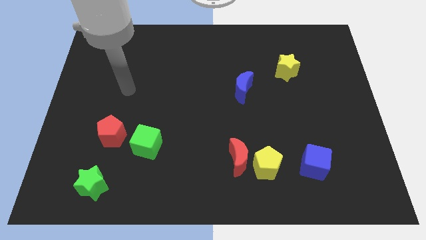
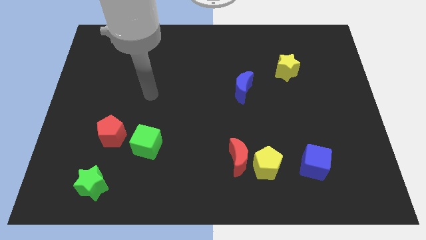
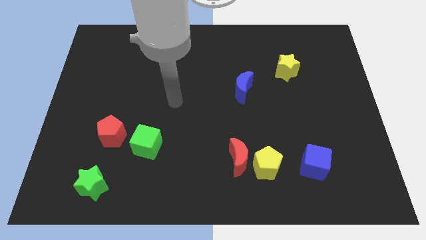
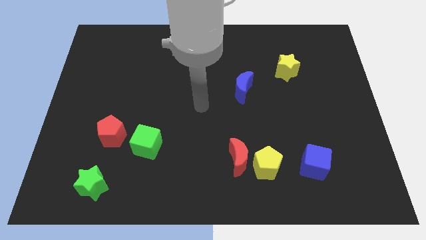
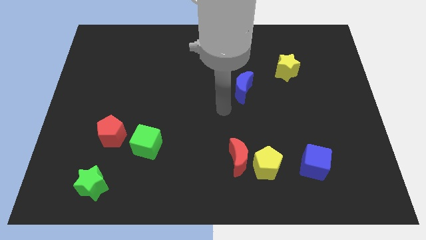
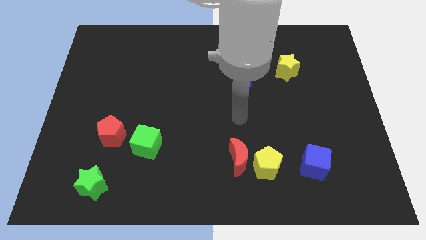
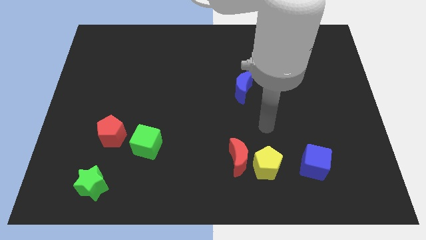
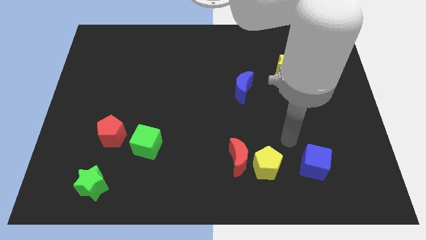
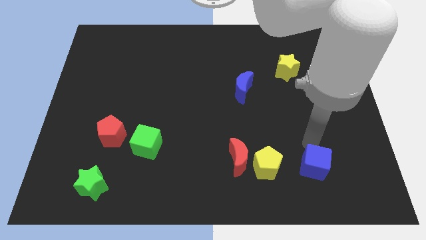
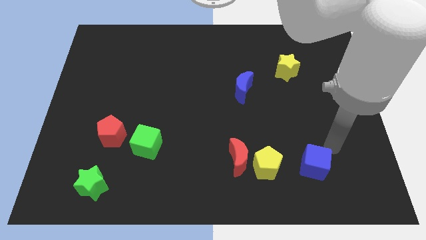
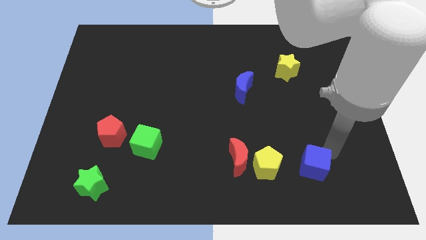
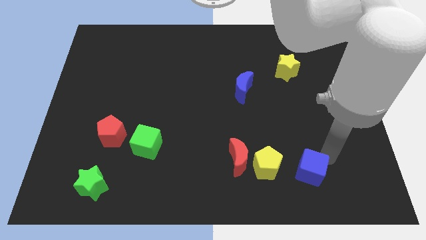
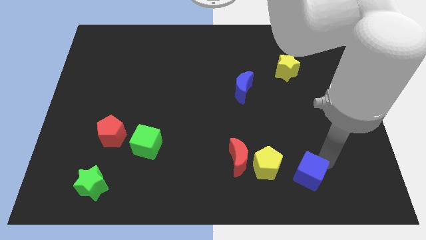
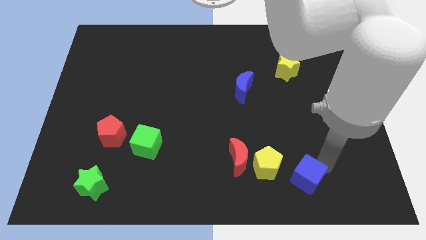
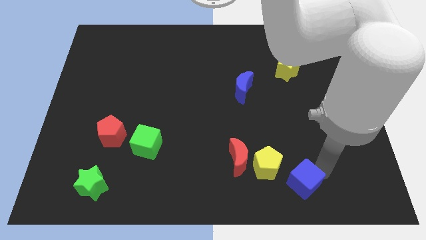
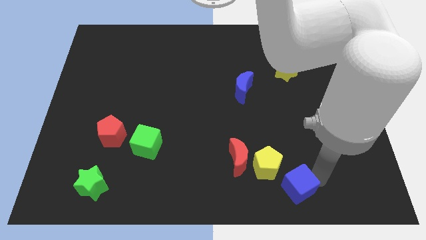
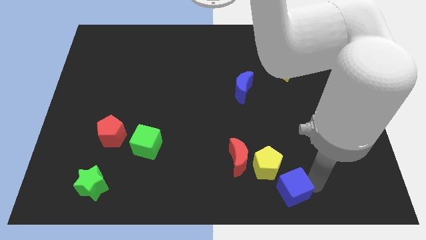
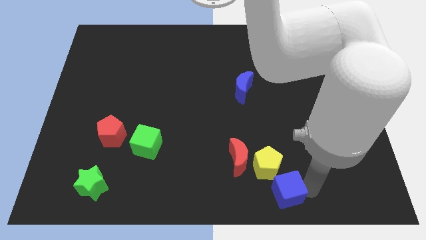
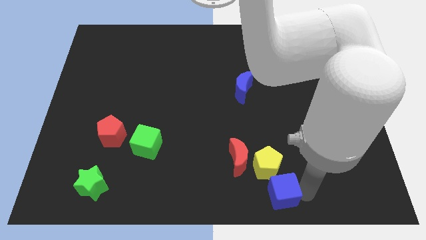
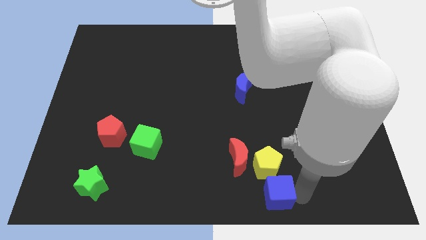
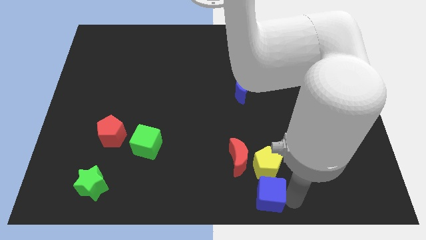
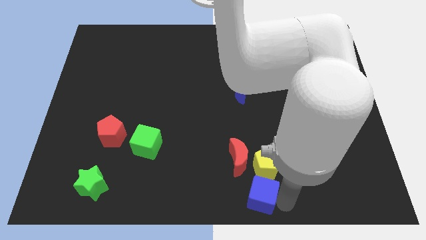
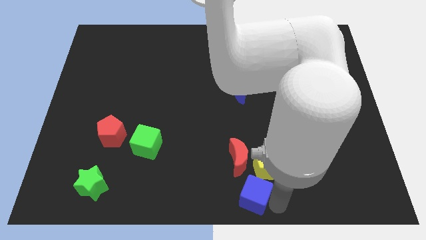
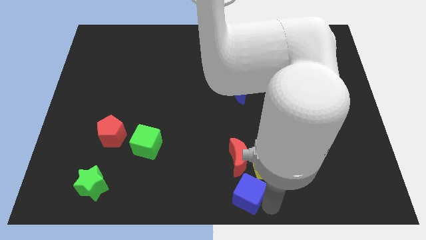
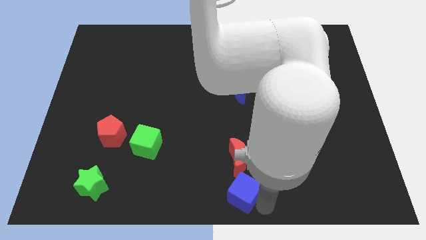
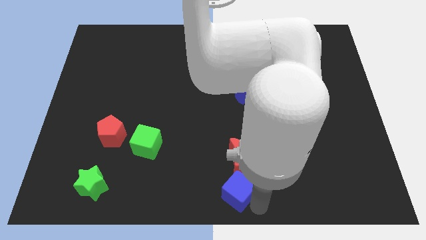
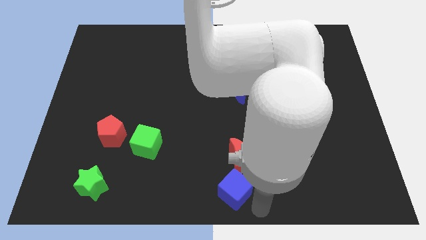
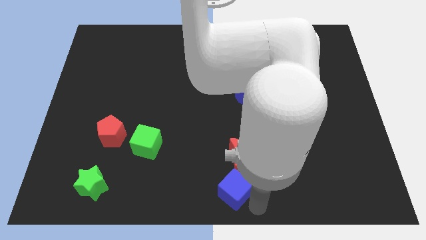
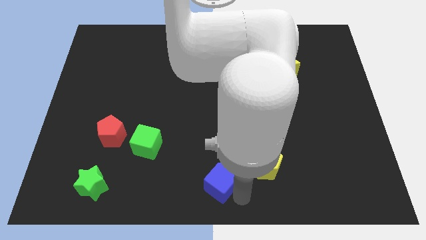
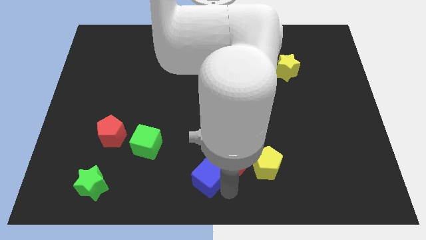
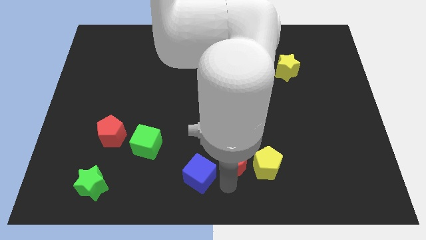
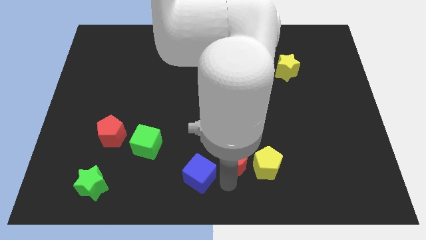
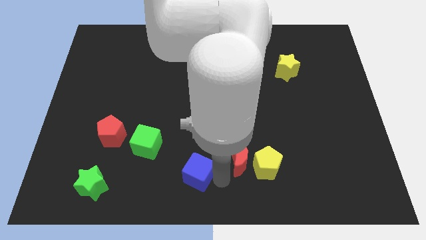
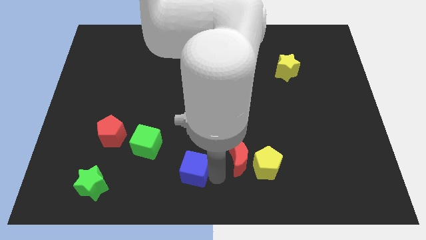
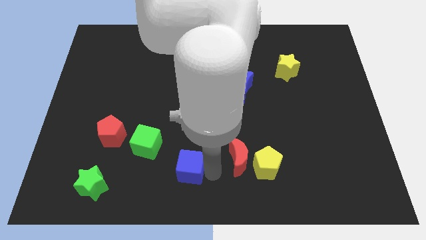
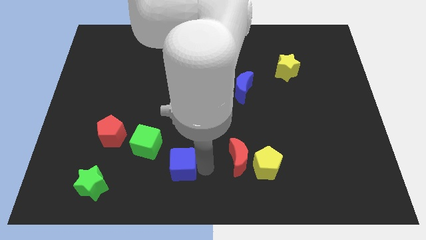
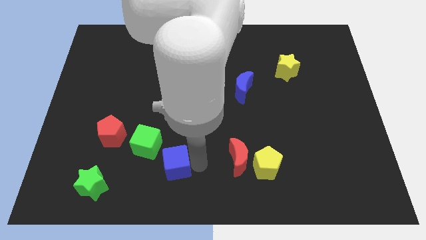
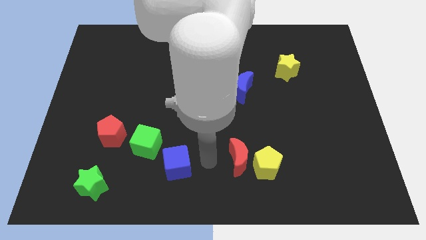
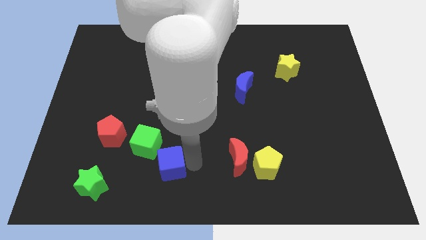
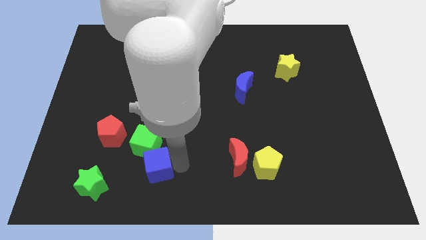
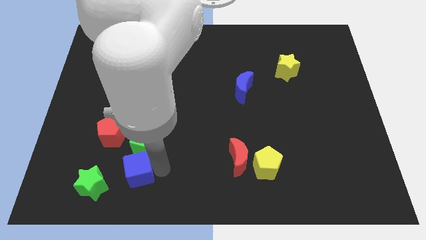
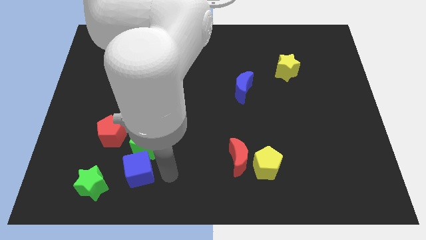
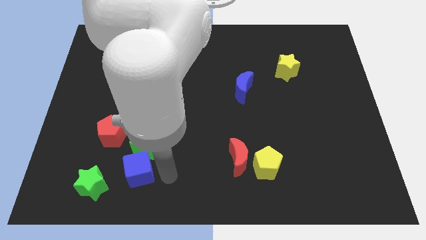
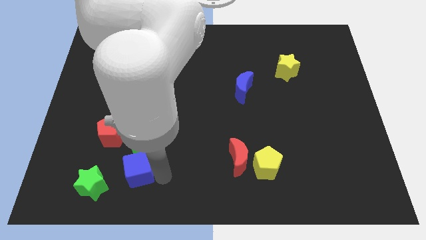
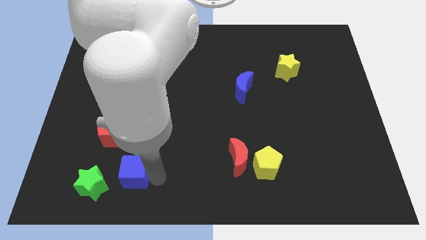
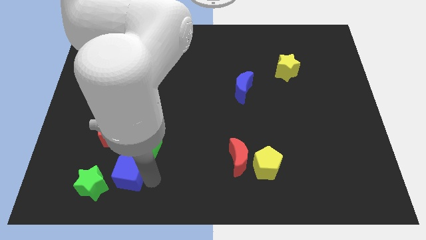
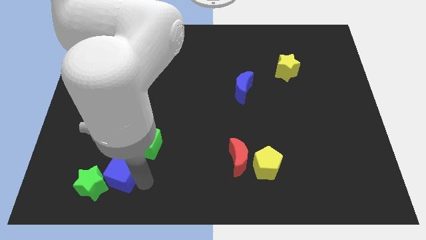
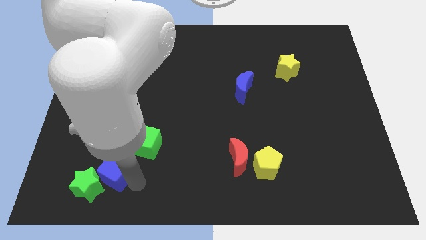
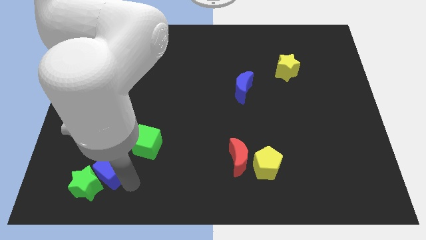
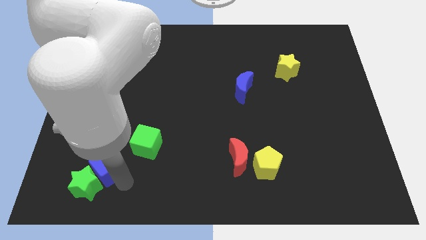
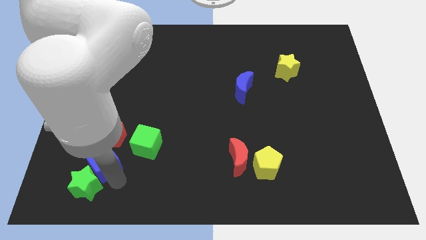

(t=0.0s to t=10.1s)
push the blue cube left of the green cube

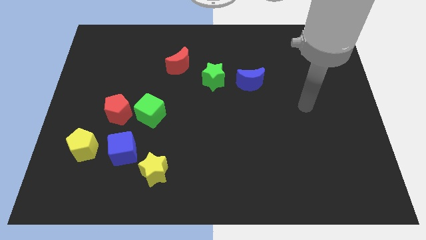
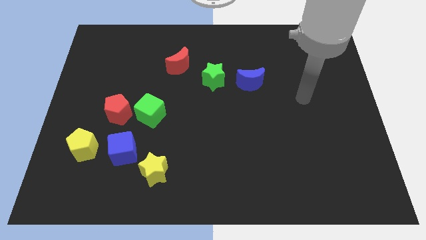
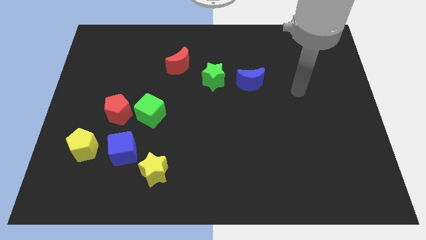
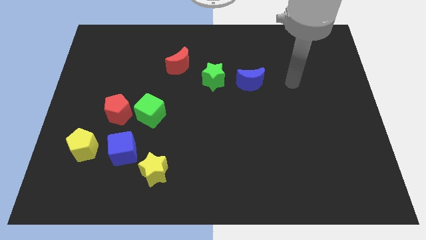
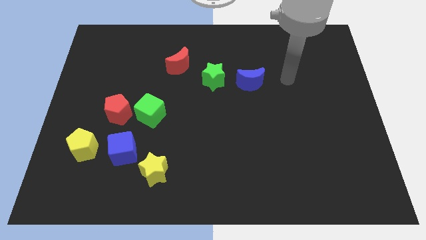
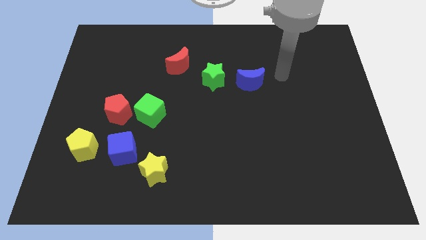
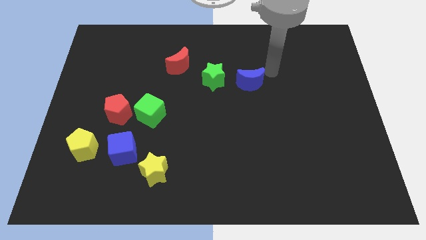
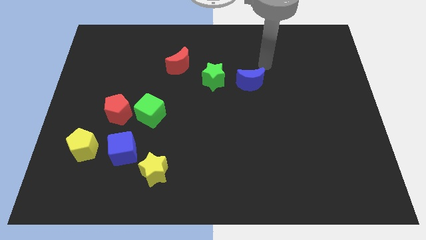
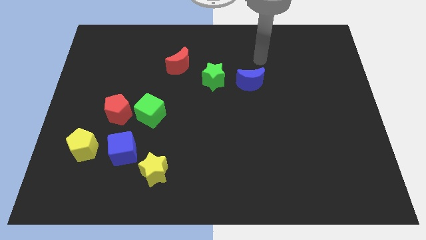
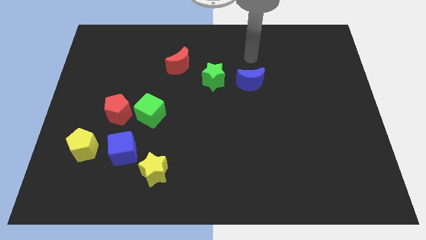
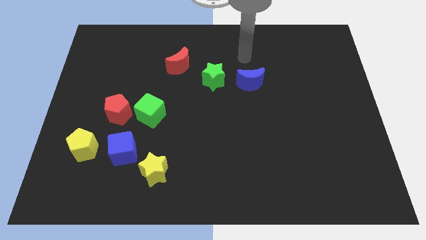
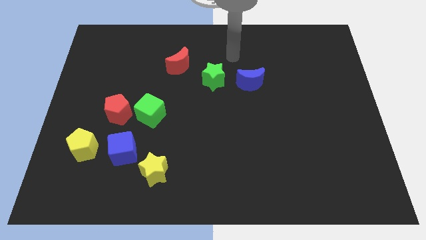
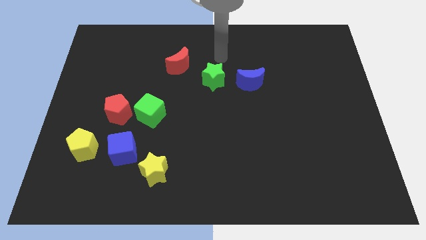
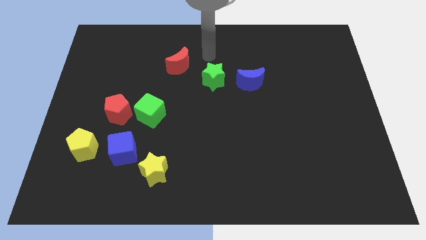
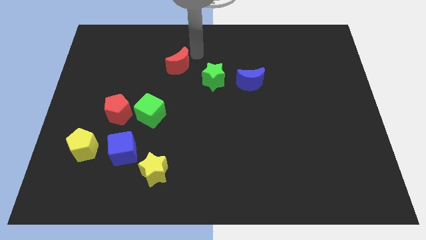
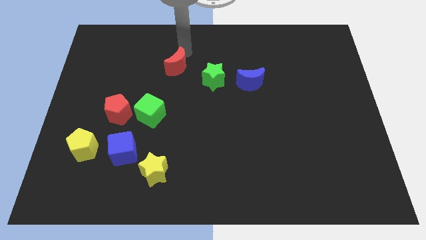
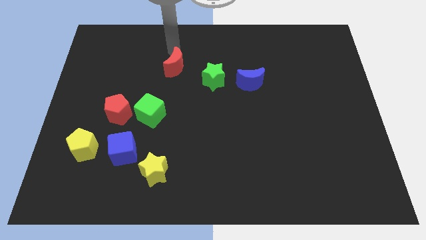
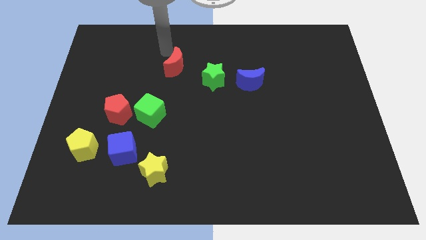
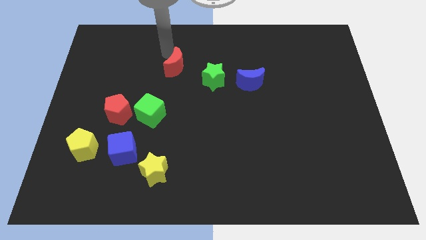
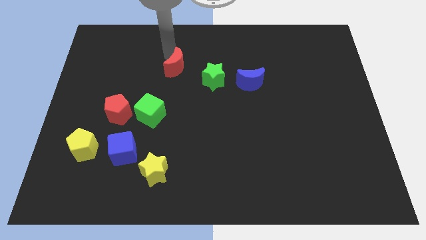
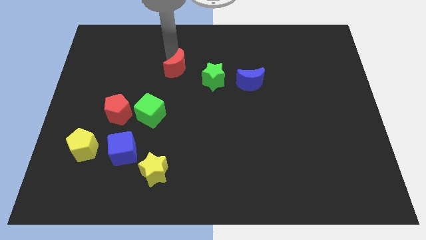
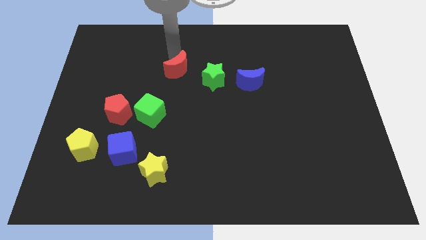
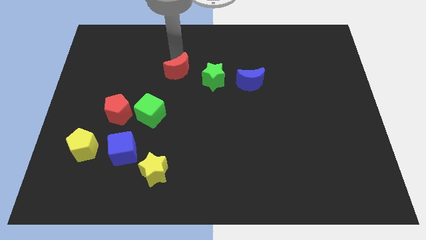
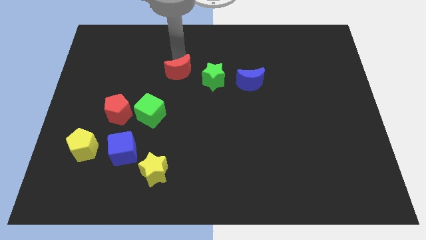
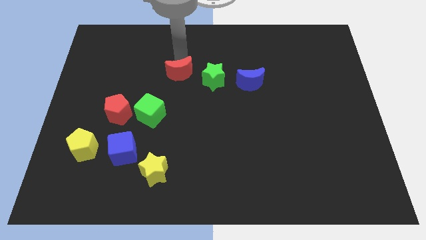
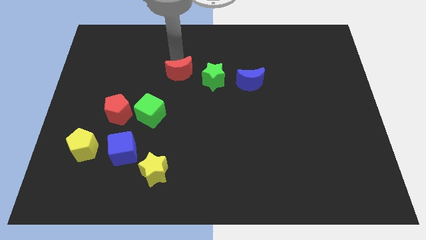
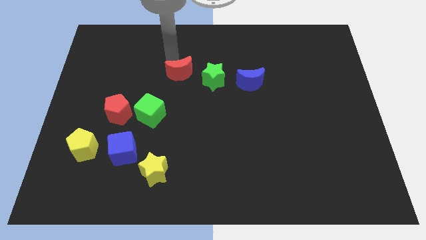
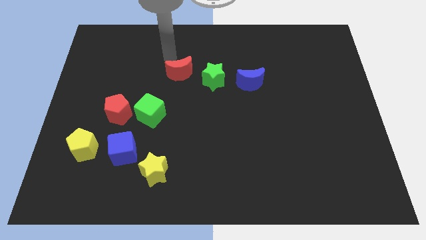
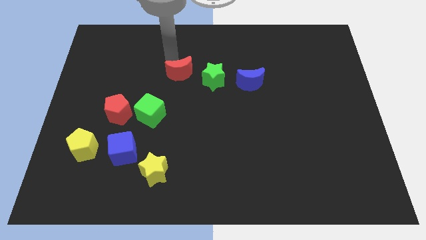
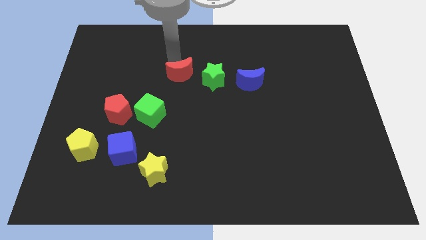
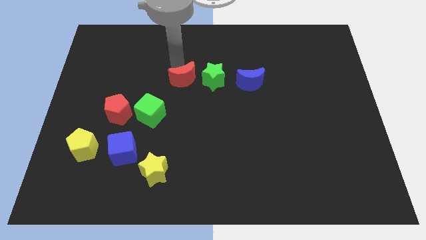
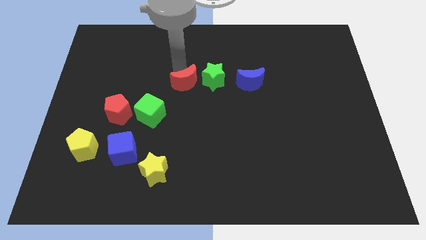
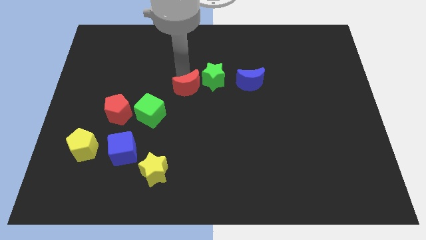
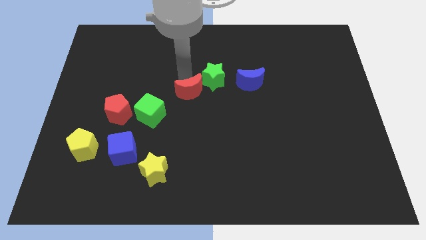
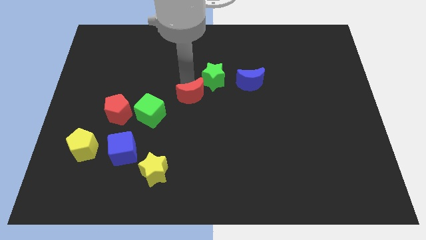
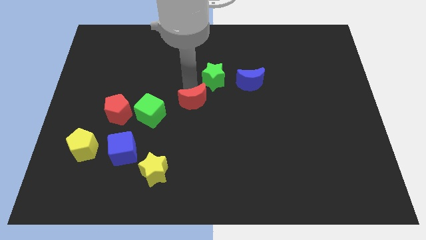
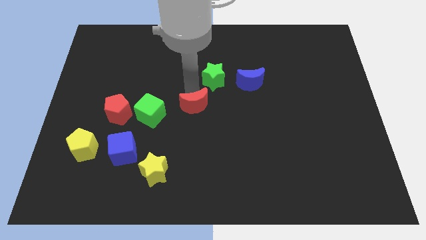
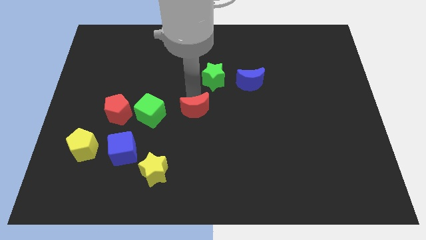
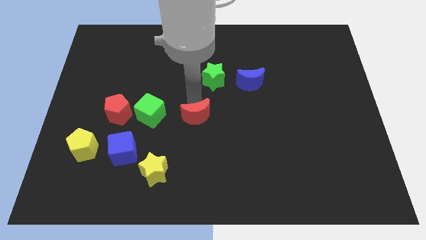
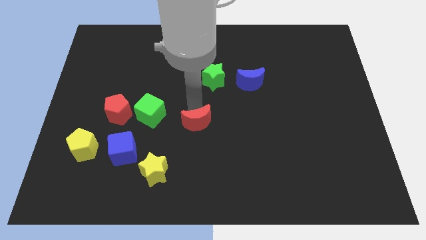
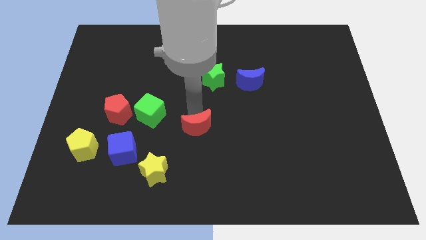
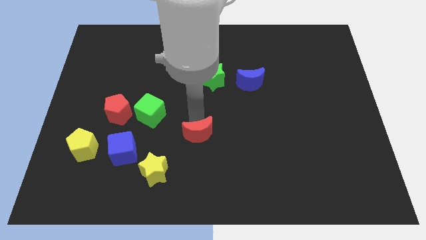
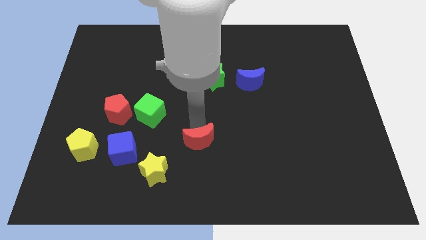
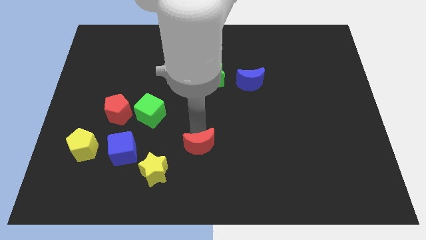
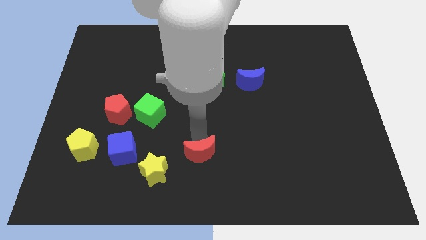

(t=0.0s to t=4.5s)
slide the red moon just right of the yellow star
